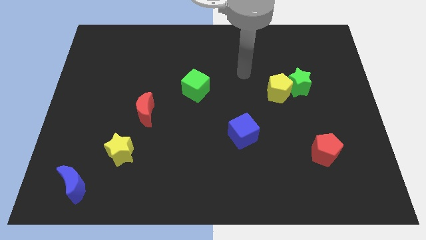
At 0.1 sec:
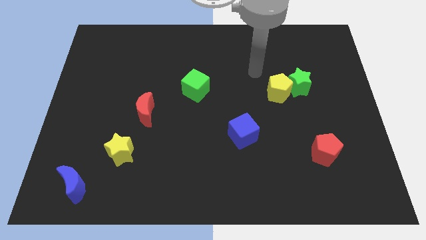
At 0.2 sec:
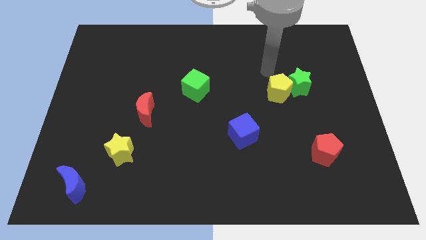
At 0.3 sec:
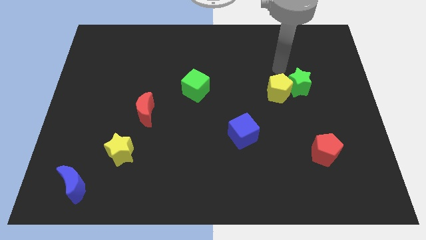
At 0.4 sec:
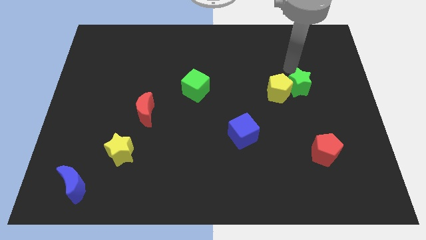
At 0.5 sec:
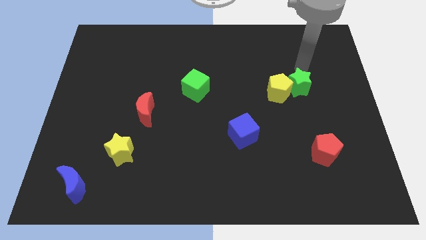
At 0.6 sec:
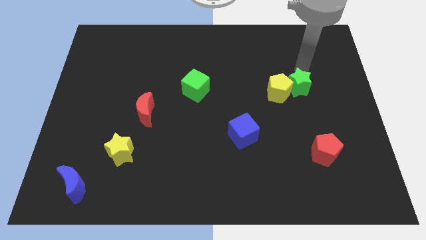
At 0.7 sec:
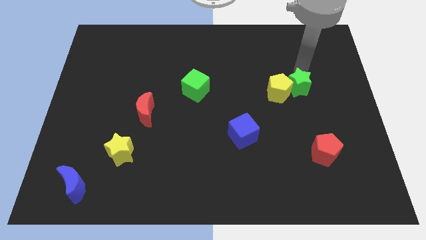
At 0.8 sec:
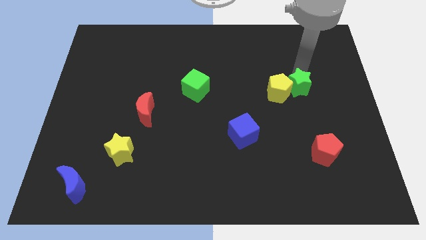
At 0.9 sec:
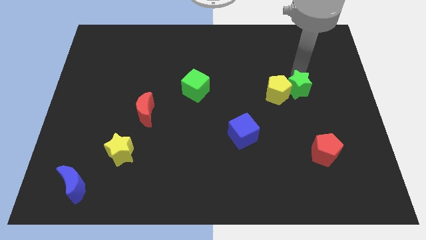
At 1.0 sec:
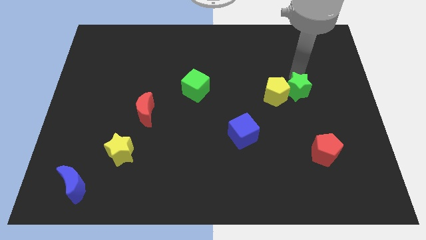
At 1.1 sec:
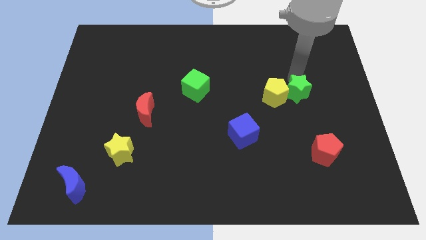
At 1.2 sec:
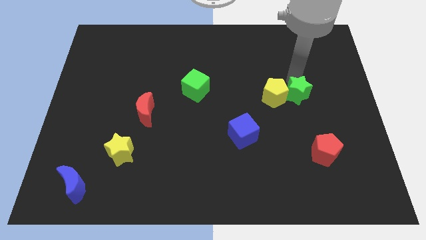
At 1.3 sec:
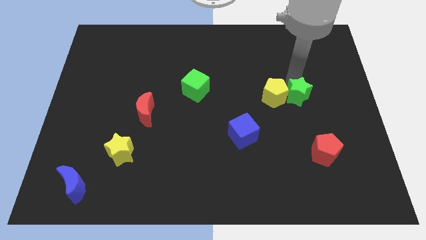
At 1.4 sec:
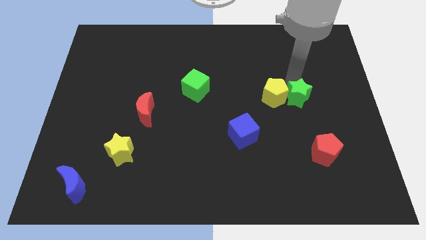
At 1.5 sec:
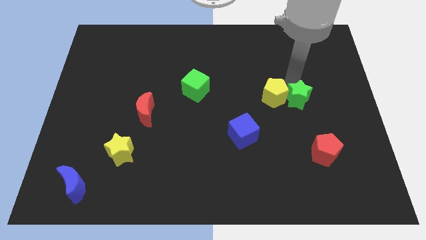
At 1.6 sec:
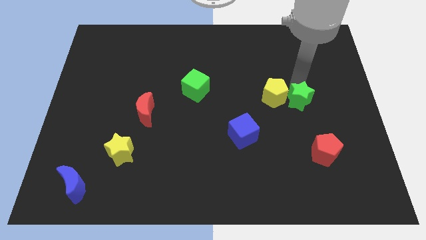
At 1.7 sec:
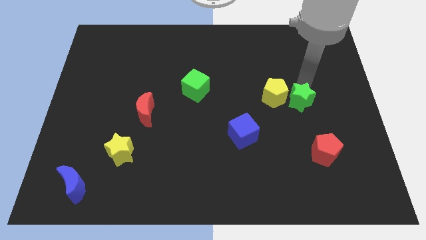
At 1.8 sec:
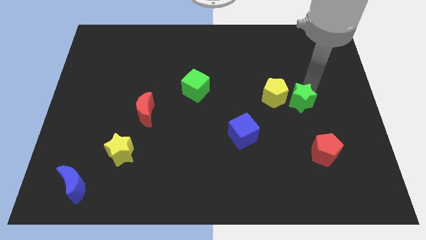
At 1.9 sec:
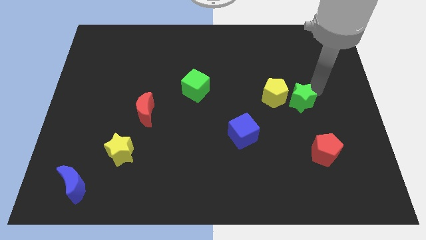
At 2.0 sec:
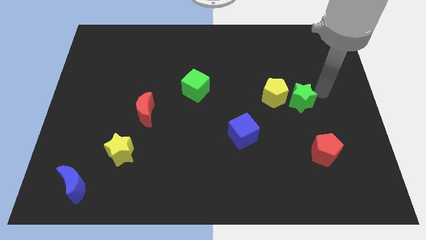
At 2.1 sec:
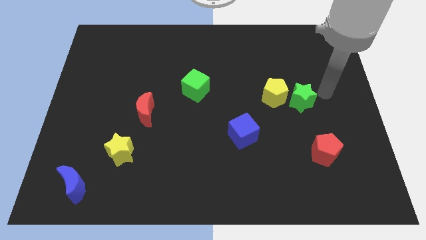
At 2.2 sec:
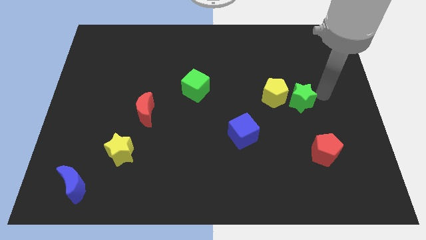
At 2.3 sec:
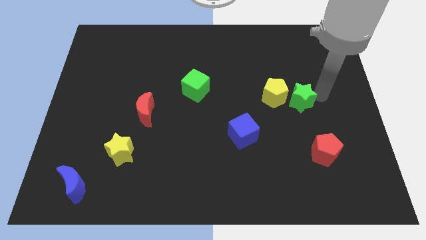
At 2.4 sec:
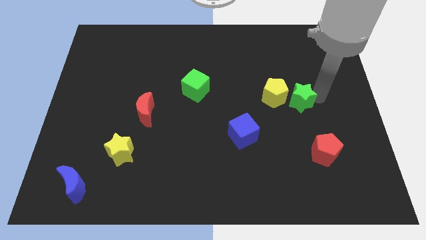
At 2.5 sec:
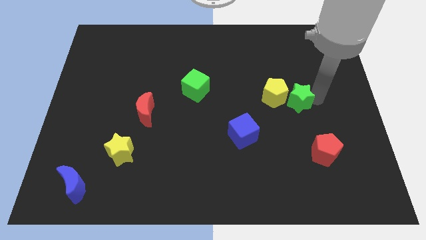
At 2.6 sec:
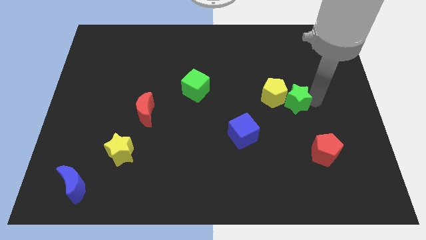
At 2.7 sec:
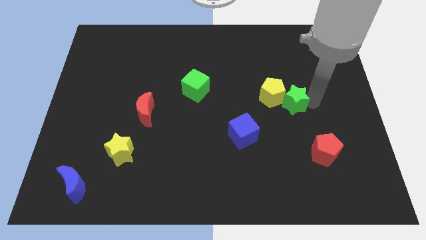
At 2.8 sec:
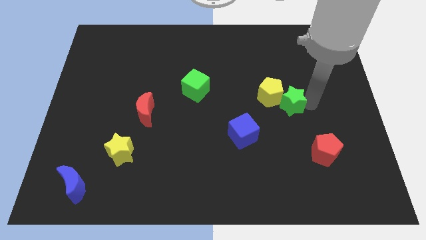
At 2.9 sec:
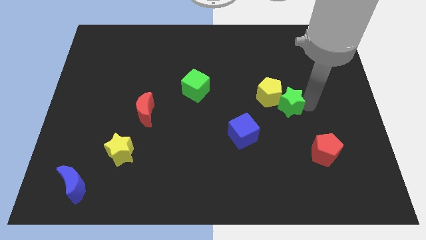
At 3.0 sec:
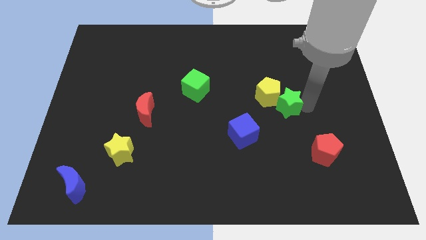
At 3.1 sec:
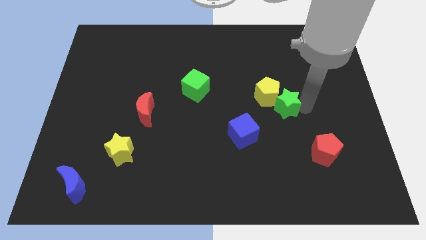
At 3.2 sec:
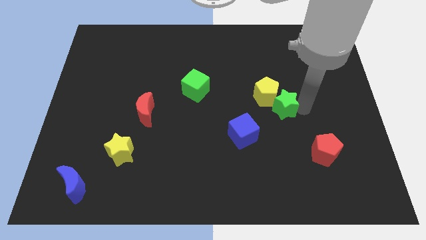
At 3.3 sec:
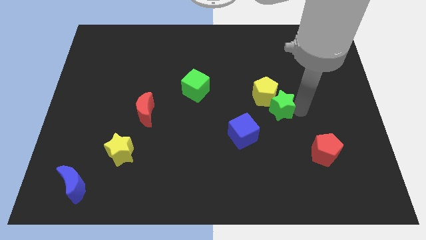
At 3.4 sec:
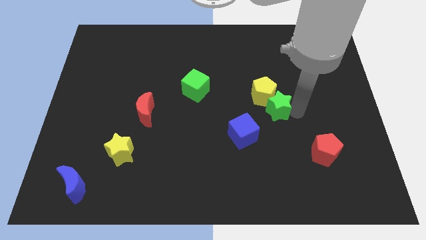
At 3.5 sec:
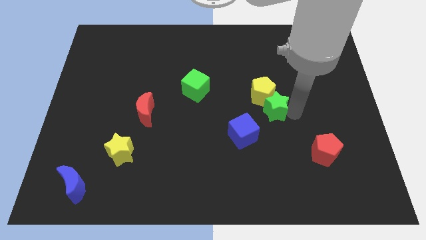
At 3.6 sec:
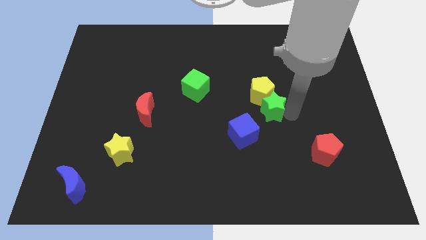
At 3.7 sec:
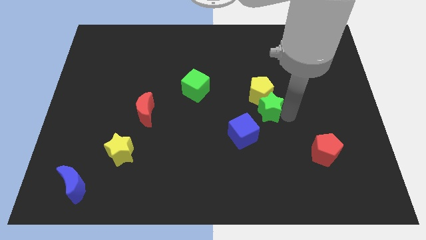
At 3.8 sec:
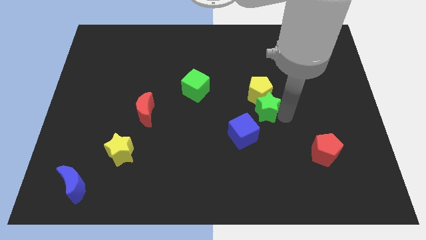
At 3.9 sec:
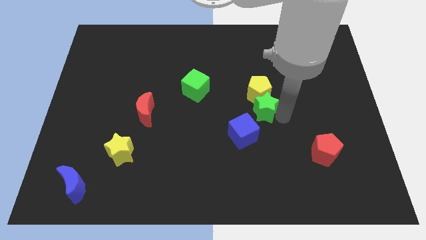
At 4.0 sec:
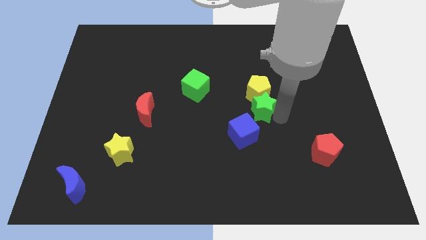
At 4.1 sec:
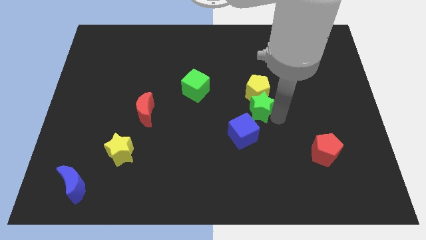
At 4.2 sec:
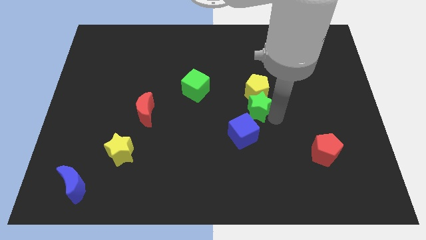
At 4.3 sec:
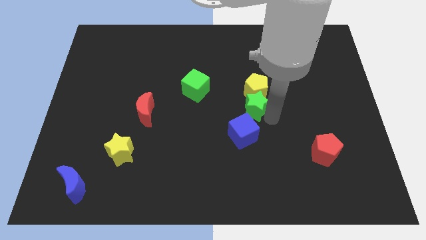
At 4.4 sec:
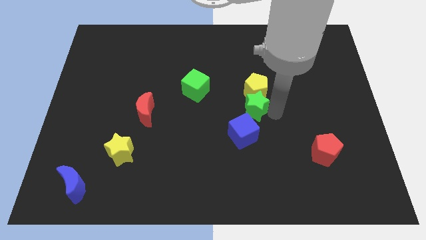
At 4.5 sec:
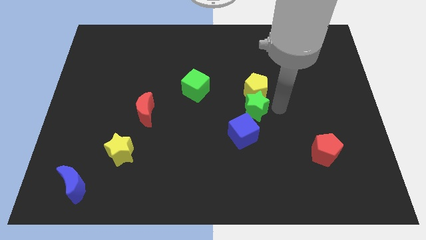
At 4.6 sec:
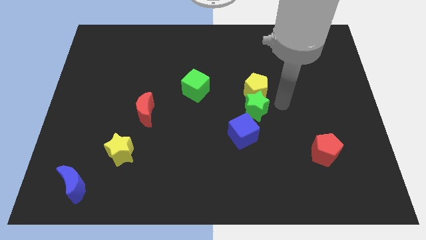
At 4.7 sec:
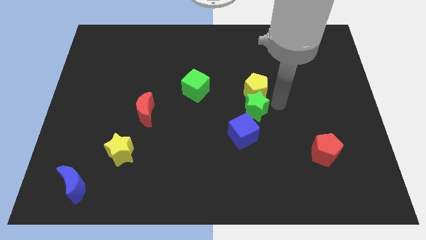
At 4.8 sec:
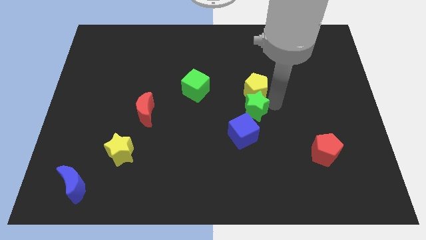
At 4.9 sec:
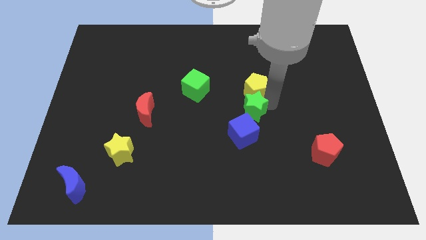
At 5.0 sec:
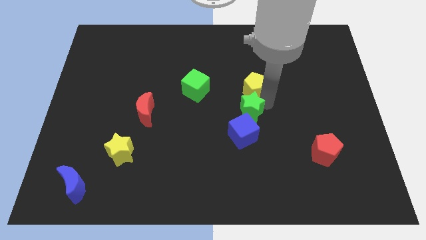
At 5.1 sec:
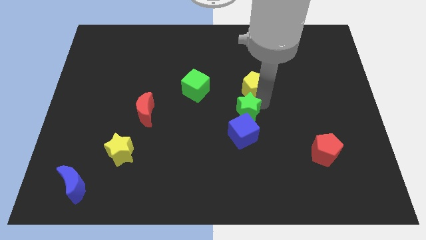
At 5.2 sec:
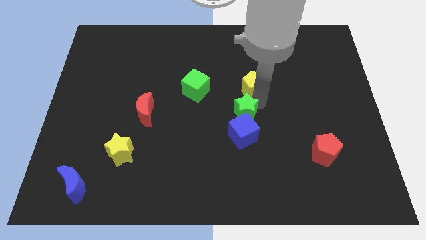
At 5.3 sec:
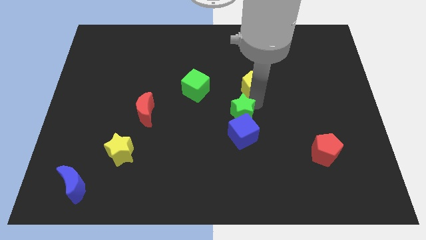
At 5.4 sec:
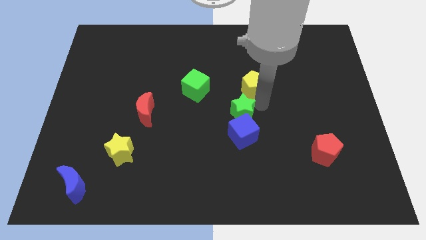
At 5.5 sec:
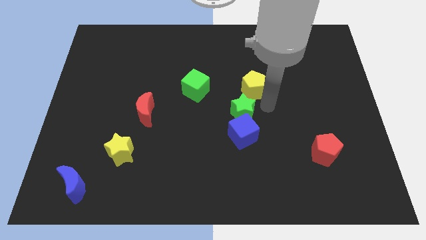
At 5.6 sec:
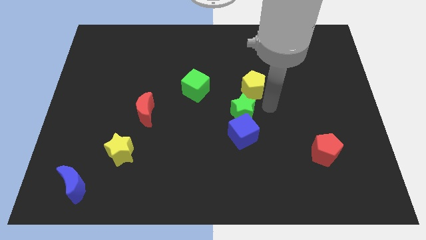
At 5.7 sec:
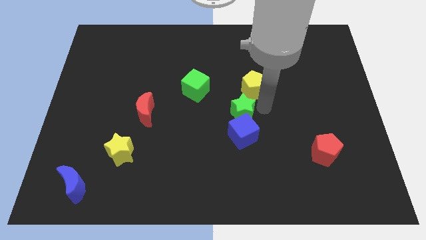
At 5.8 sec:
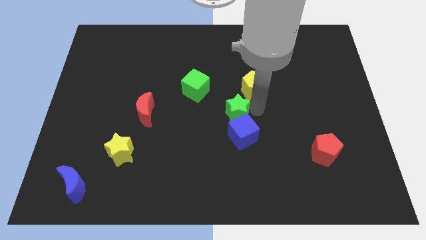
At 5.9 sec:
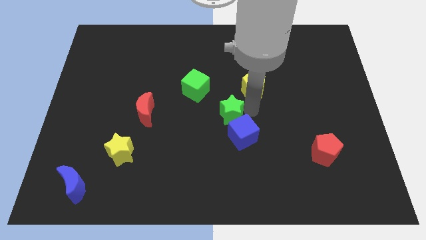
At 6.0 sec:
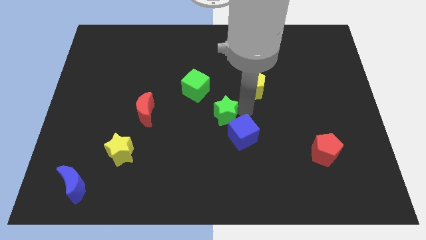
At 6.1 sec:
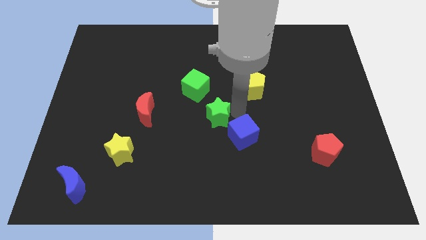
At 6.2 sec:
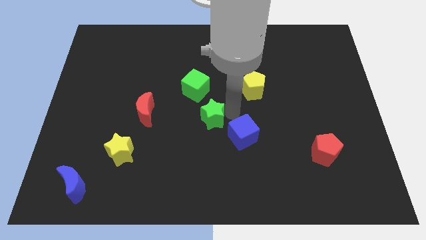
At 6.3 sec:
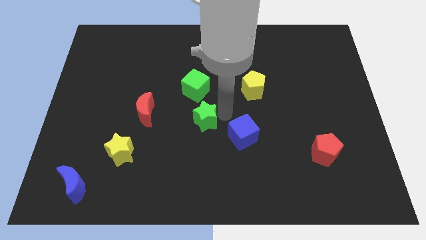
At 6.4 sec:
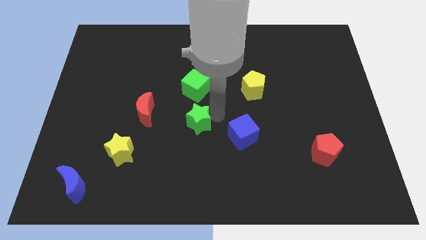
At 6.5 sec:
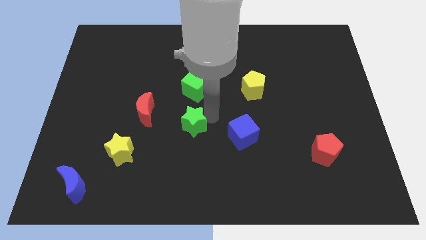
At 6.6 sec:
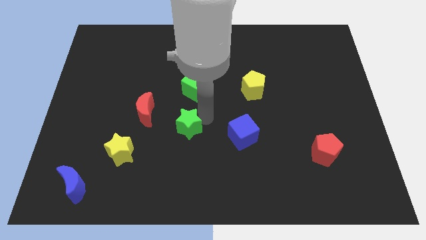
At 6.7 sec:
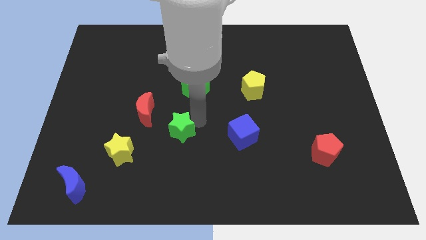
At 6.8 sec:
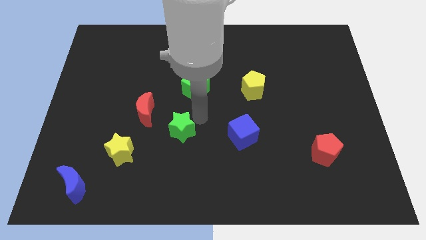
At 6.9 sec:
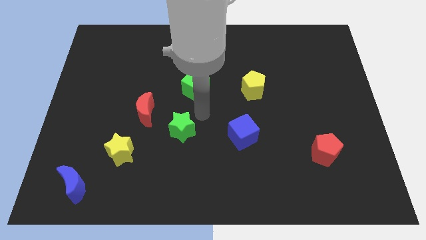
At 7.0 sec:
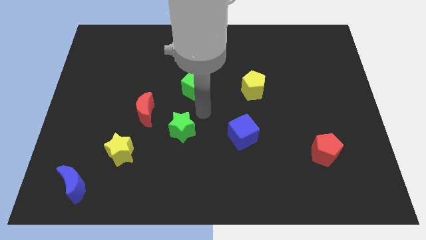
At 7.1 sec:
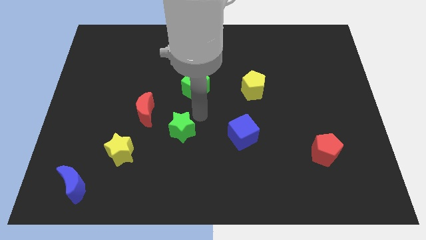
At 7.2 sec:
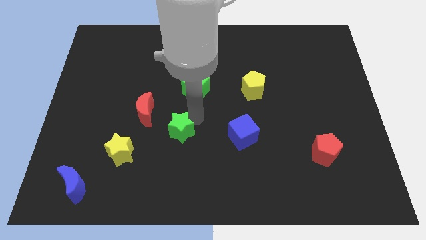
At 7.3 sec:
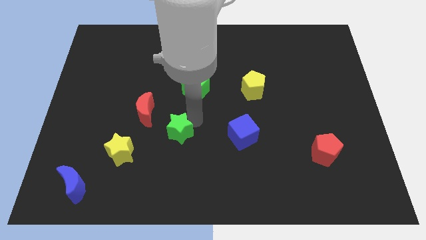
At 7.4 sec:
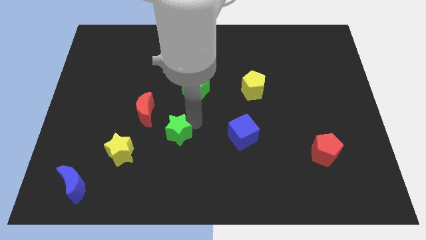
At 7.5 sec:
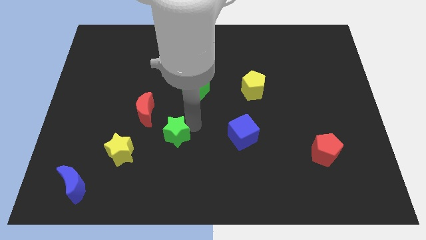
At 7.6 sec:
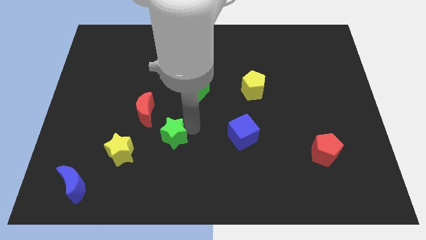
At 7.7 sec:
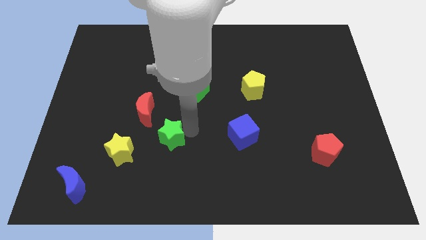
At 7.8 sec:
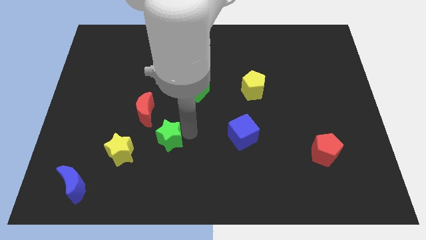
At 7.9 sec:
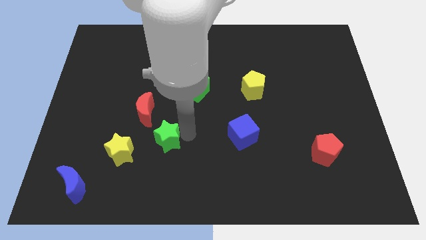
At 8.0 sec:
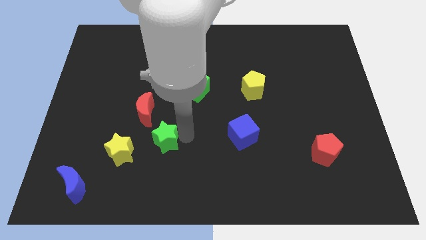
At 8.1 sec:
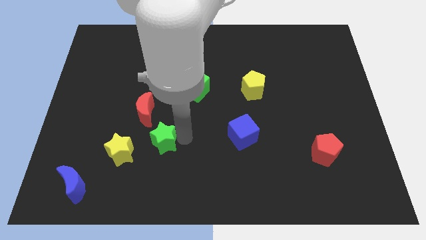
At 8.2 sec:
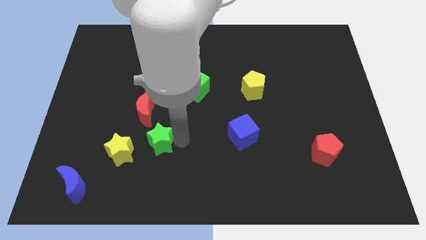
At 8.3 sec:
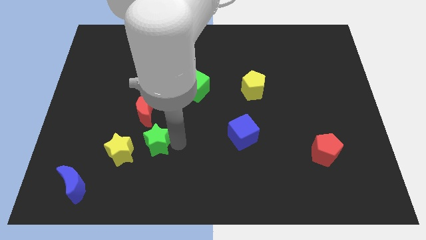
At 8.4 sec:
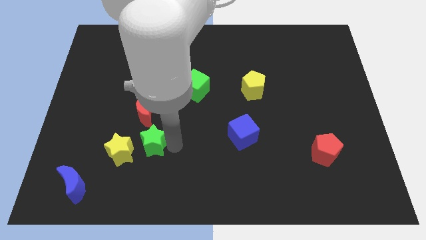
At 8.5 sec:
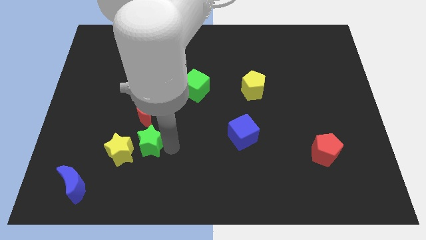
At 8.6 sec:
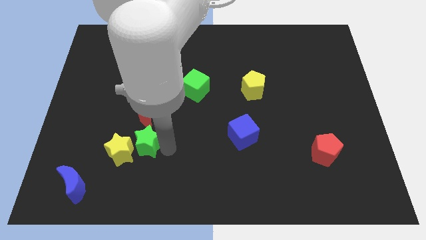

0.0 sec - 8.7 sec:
slide the green star close to the yellow star
